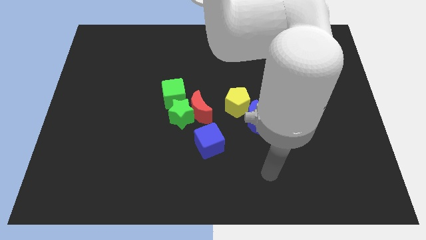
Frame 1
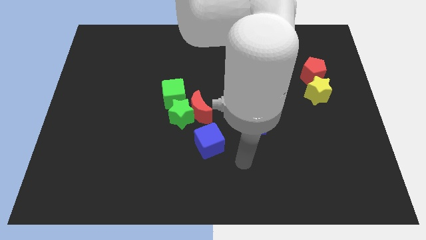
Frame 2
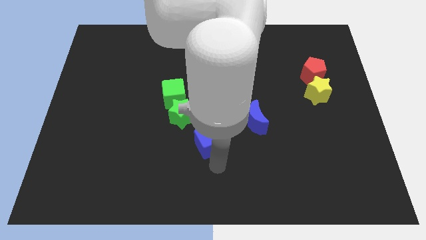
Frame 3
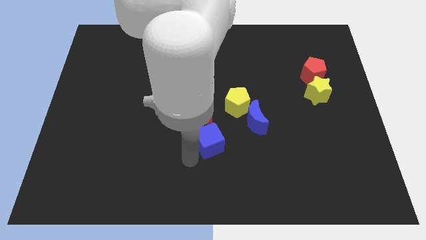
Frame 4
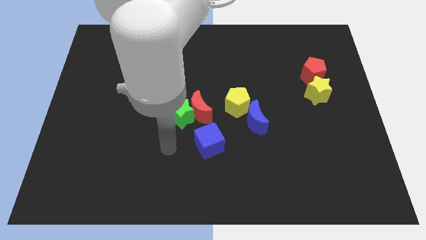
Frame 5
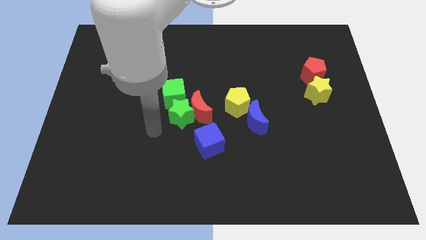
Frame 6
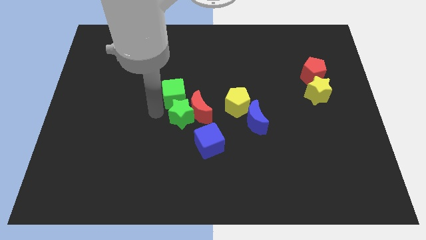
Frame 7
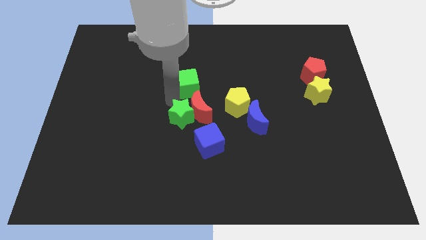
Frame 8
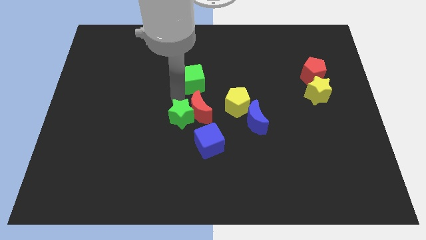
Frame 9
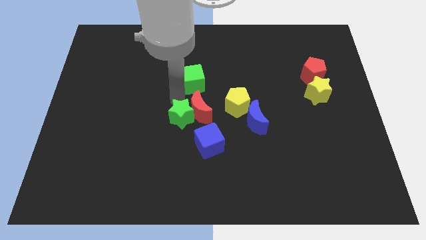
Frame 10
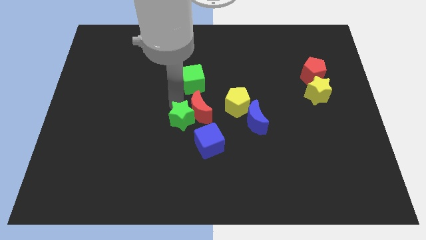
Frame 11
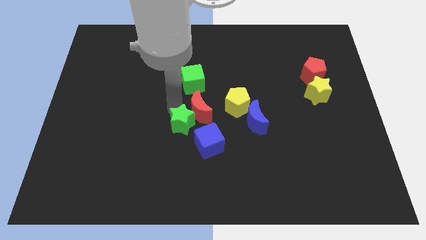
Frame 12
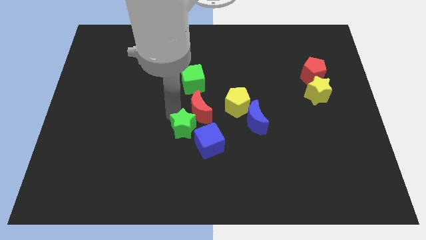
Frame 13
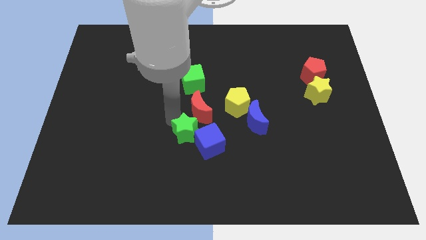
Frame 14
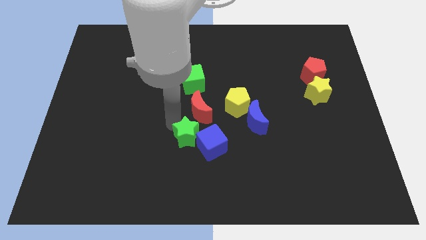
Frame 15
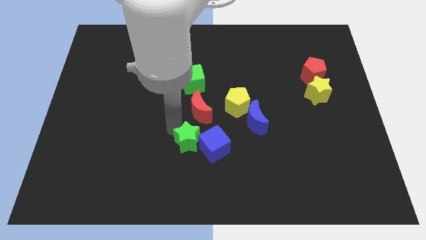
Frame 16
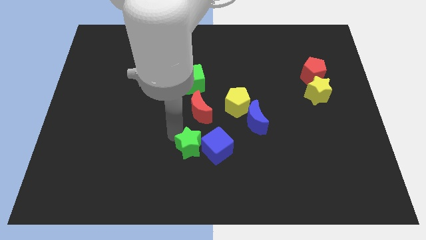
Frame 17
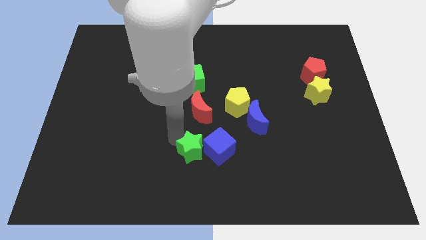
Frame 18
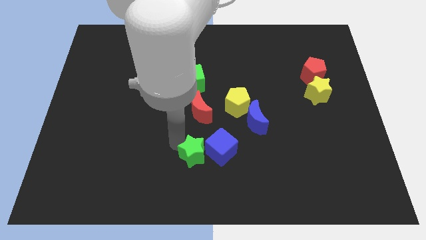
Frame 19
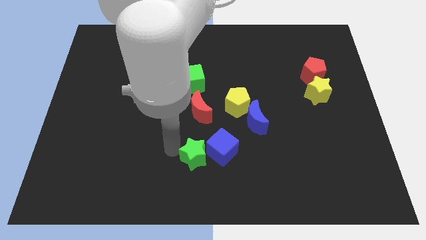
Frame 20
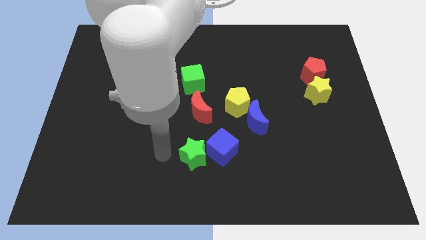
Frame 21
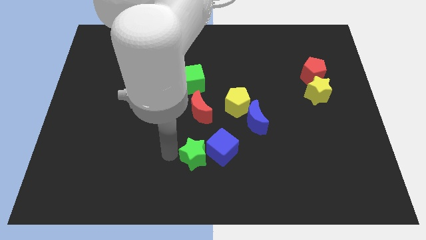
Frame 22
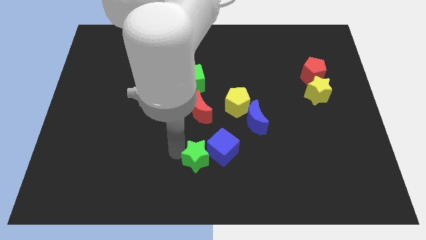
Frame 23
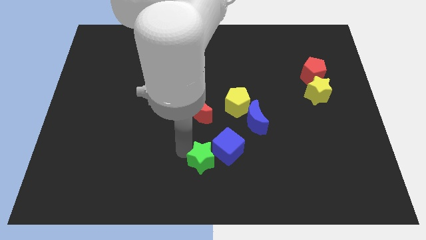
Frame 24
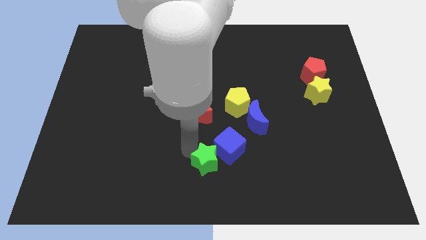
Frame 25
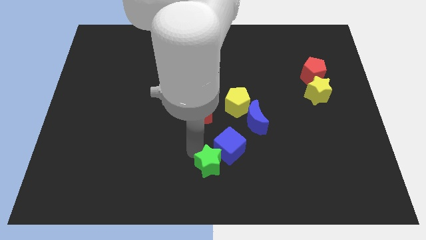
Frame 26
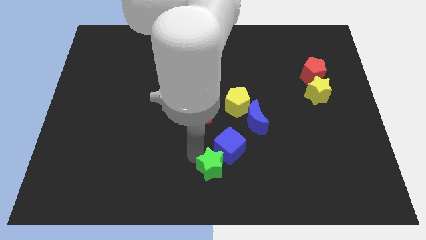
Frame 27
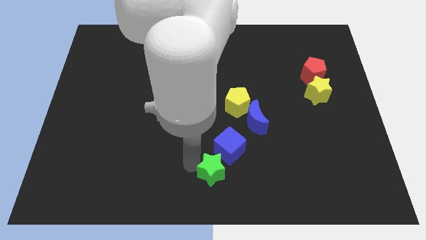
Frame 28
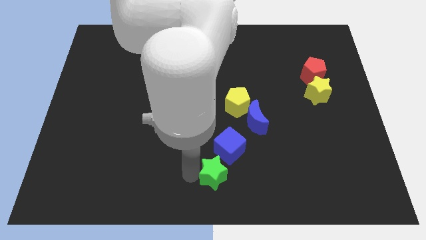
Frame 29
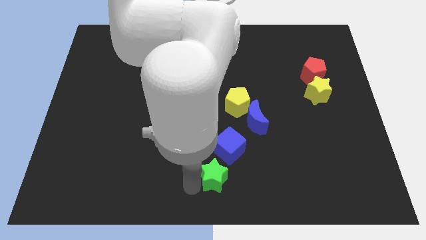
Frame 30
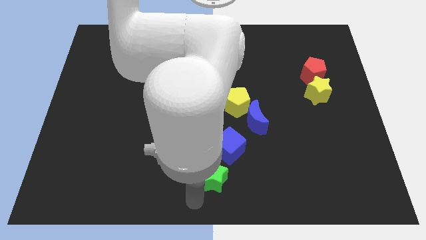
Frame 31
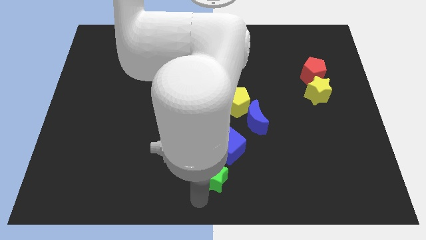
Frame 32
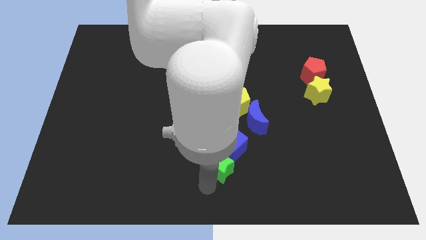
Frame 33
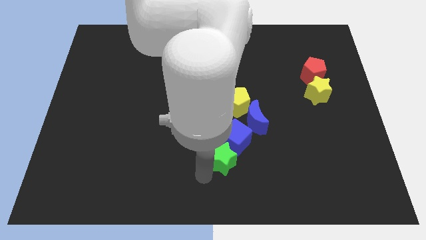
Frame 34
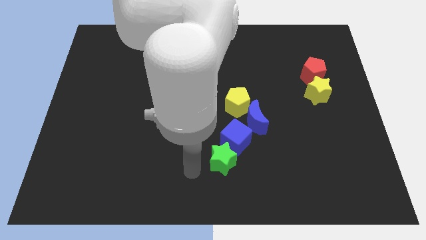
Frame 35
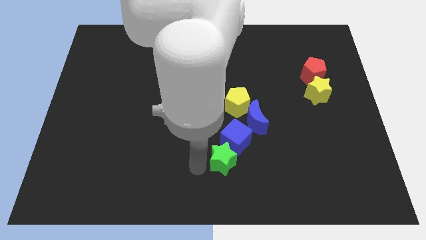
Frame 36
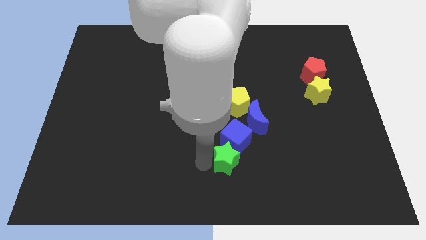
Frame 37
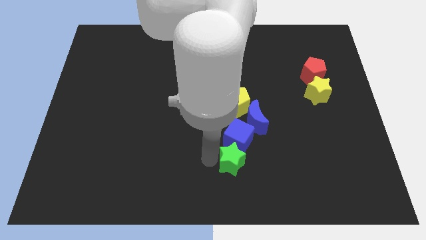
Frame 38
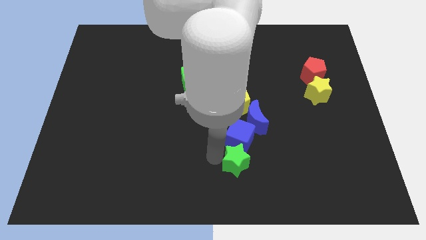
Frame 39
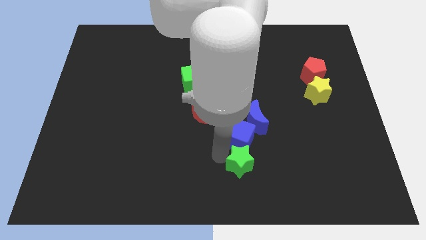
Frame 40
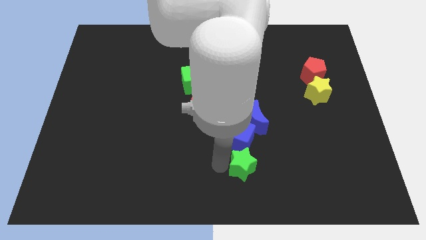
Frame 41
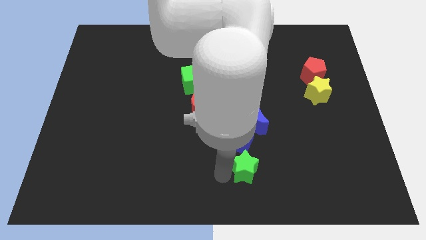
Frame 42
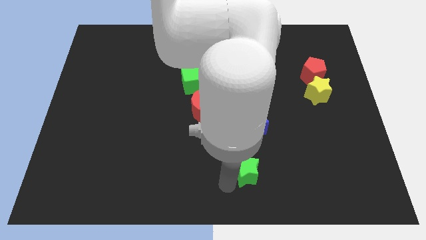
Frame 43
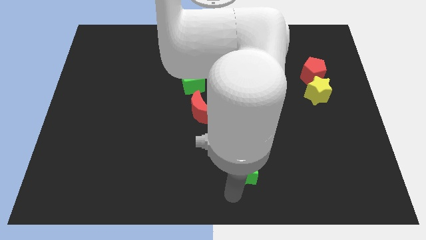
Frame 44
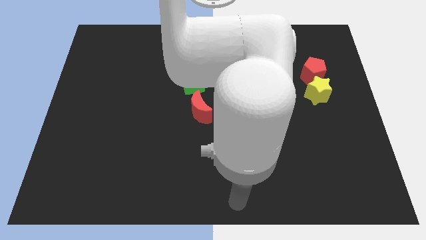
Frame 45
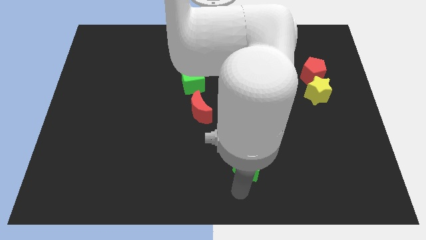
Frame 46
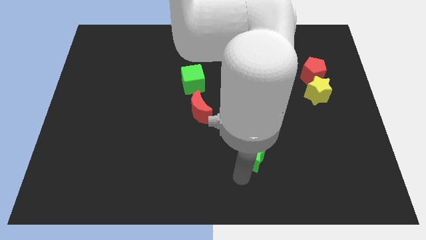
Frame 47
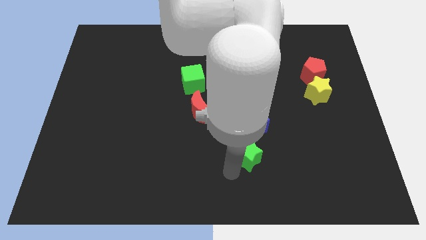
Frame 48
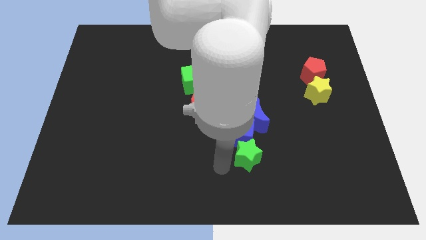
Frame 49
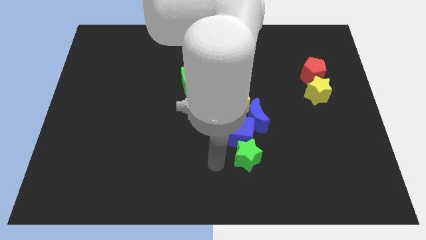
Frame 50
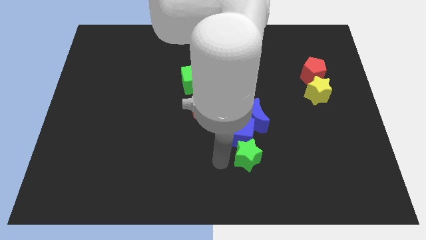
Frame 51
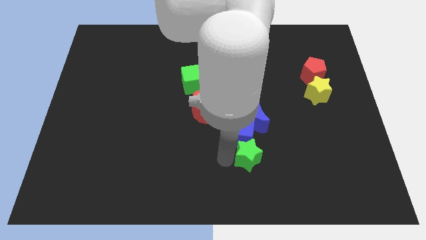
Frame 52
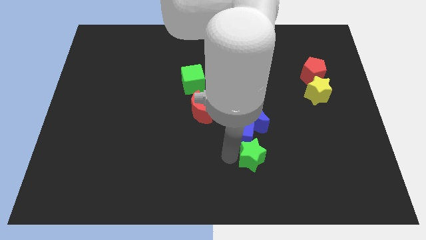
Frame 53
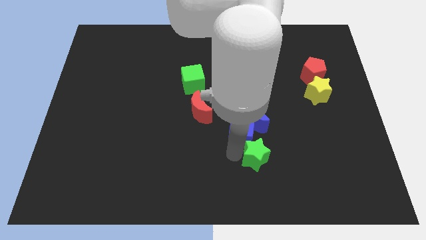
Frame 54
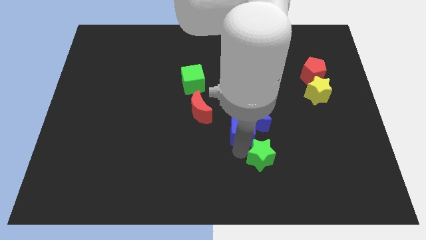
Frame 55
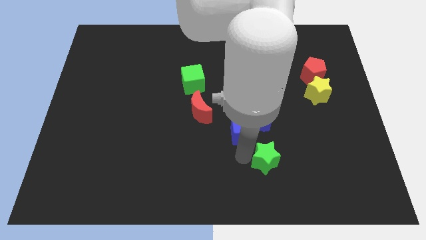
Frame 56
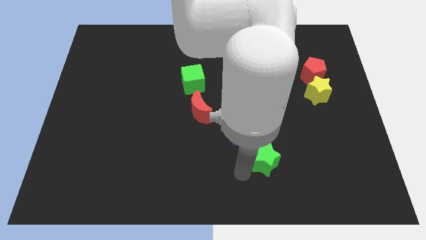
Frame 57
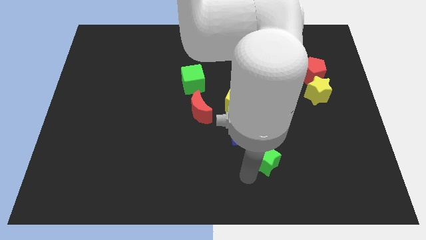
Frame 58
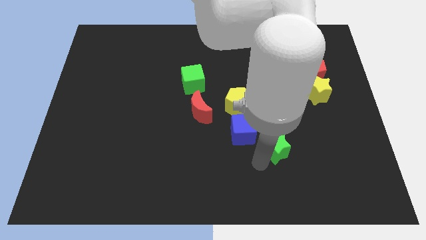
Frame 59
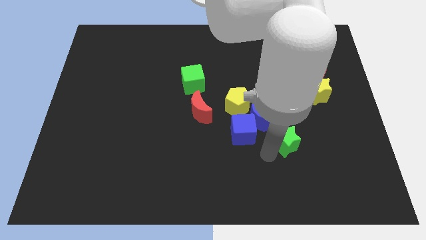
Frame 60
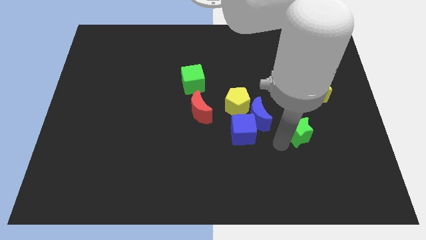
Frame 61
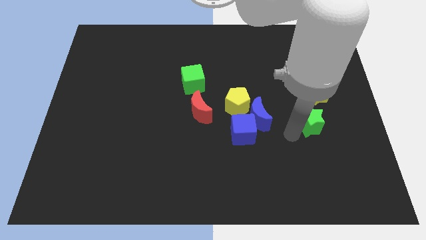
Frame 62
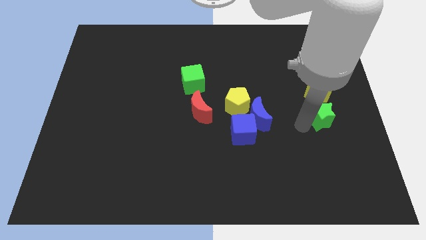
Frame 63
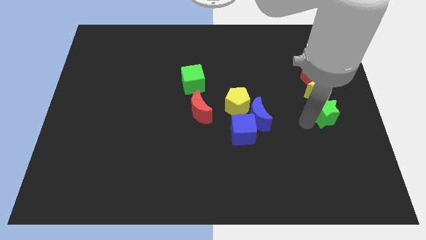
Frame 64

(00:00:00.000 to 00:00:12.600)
push the green star to the right side

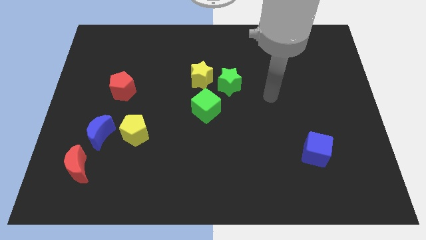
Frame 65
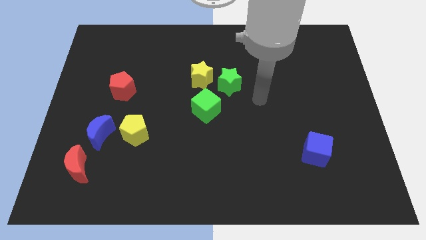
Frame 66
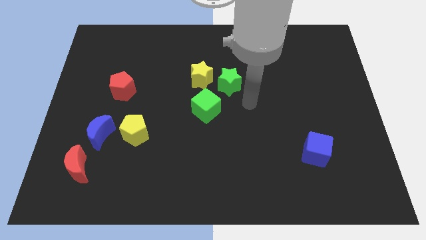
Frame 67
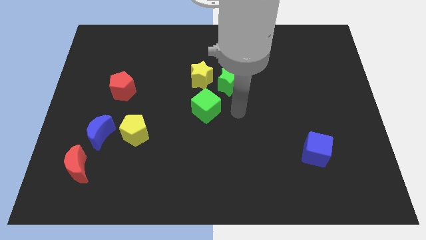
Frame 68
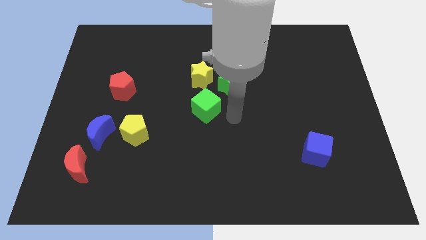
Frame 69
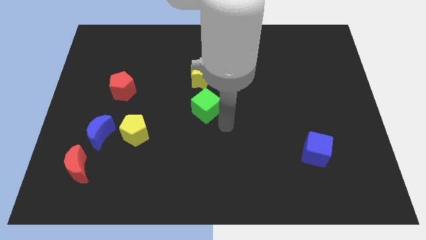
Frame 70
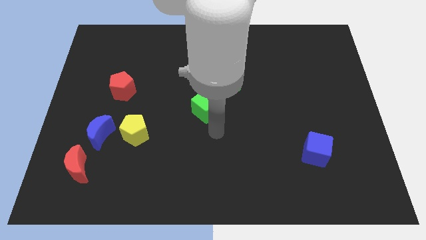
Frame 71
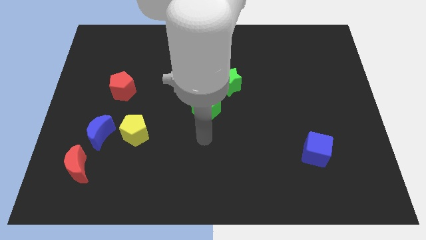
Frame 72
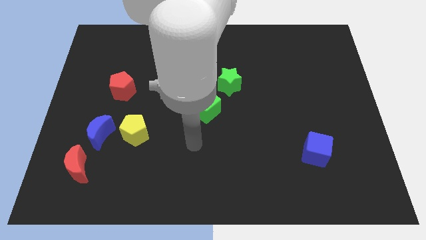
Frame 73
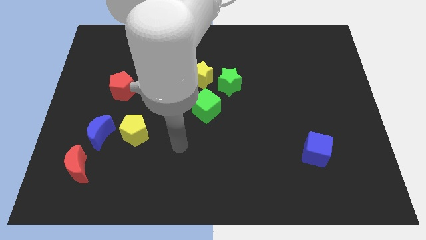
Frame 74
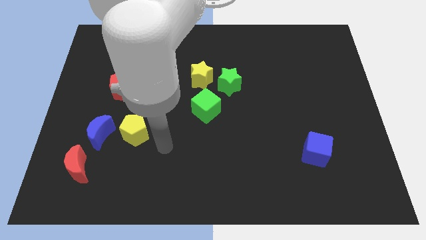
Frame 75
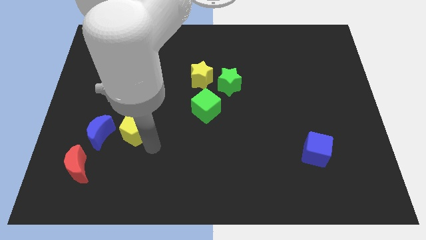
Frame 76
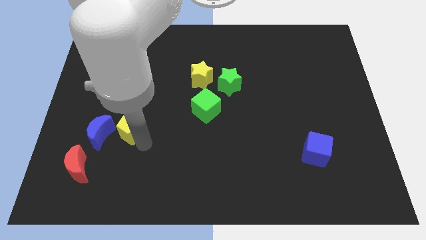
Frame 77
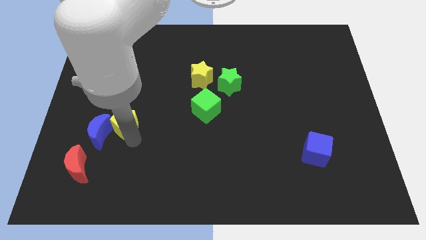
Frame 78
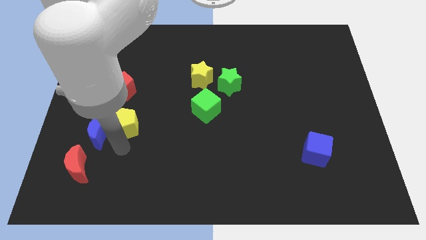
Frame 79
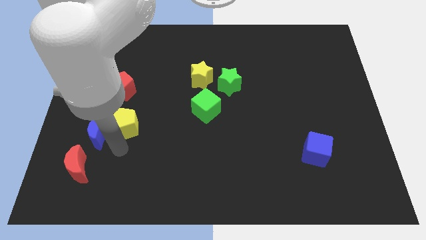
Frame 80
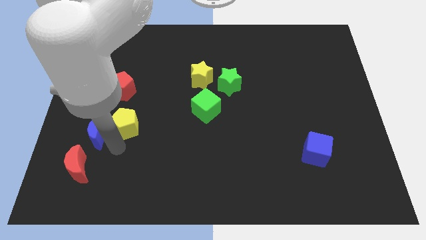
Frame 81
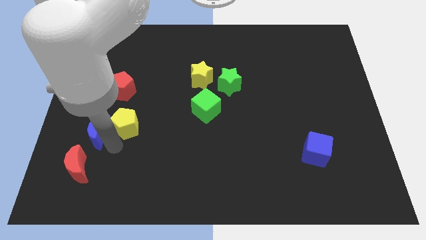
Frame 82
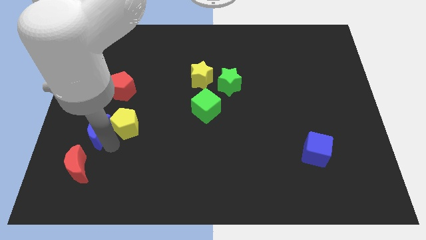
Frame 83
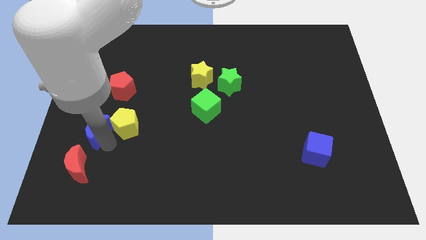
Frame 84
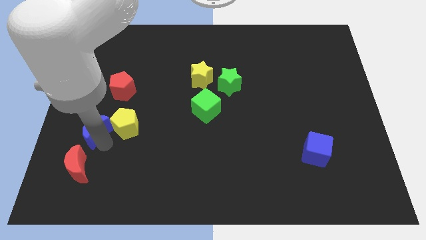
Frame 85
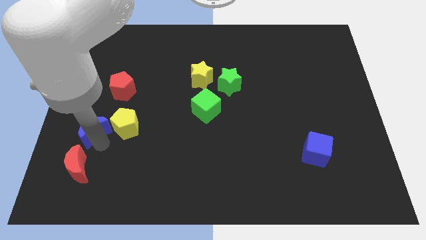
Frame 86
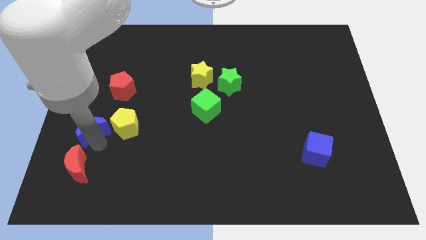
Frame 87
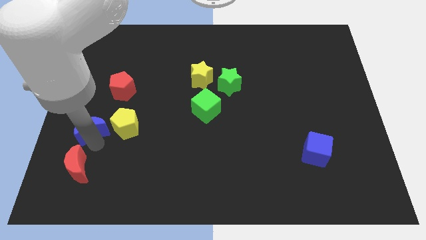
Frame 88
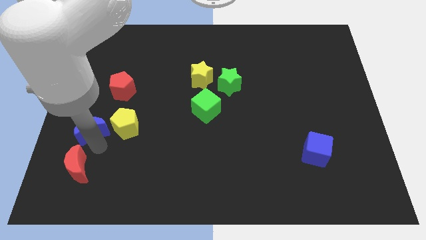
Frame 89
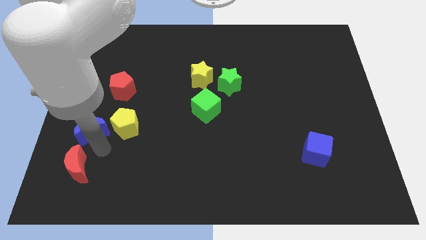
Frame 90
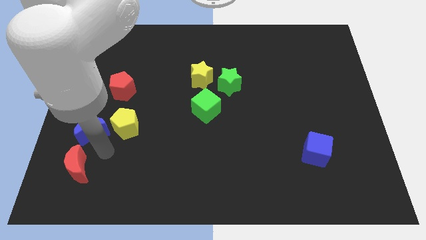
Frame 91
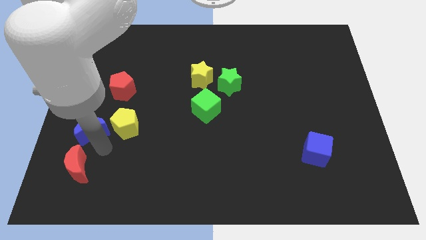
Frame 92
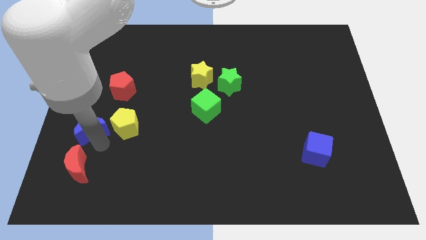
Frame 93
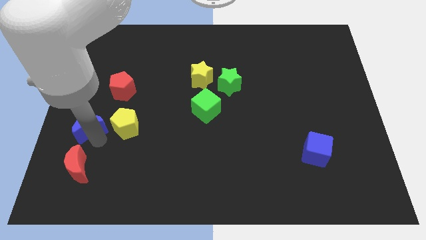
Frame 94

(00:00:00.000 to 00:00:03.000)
move the blue moon to the left side
